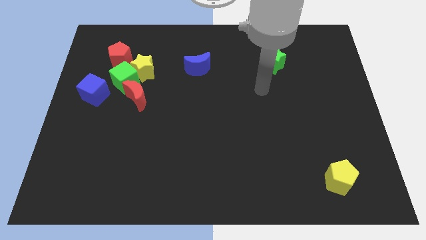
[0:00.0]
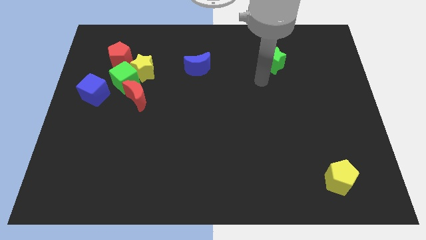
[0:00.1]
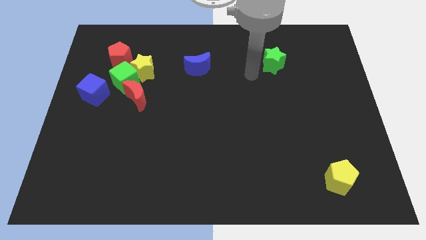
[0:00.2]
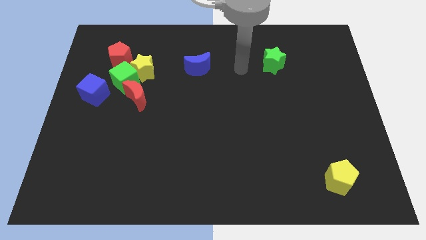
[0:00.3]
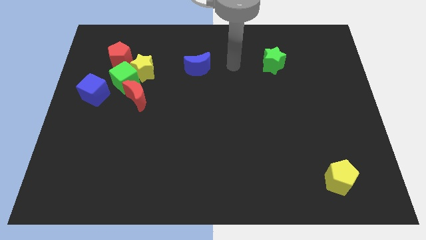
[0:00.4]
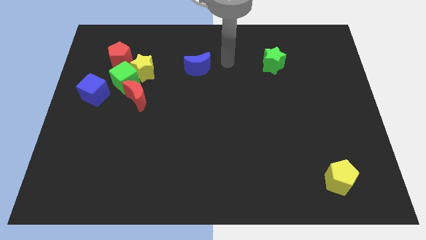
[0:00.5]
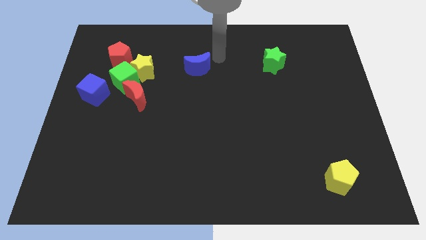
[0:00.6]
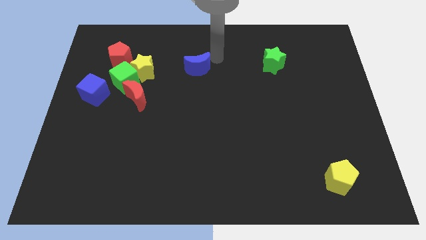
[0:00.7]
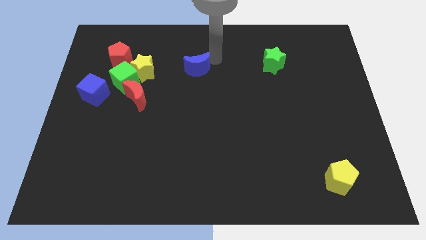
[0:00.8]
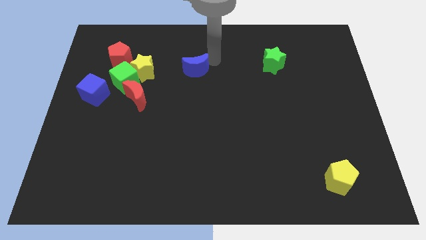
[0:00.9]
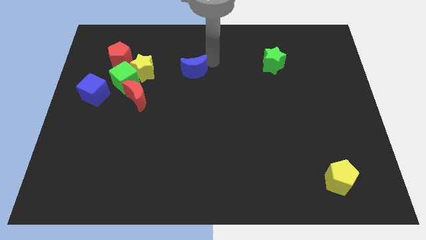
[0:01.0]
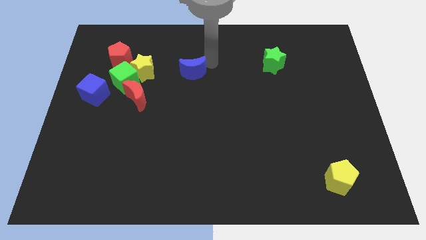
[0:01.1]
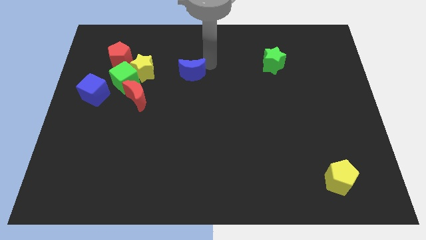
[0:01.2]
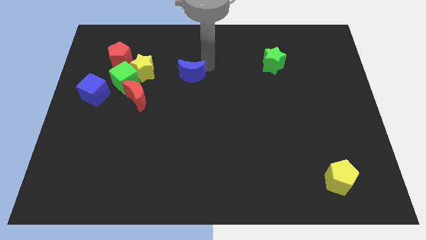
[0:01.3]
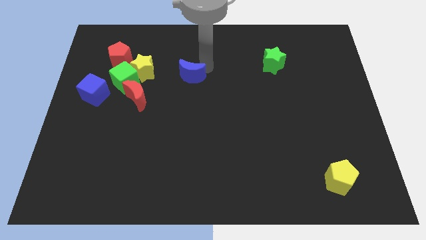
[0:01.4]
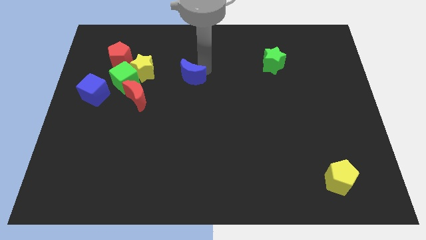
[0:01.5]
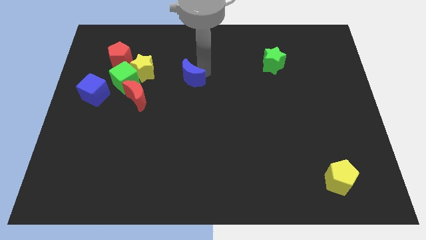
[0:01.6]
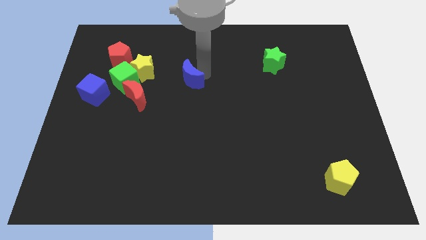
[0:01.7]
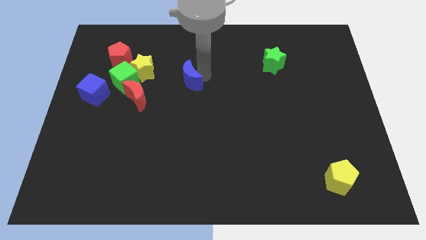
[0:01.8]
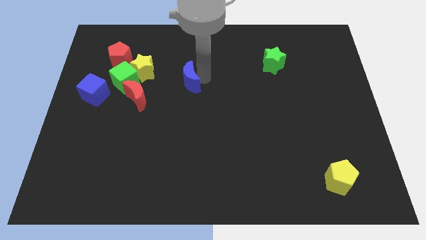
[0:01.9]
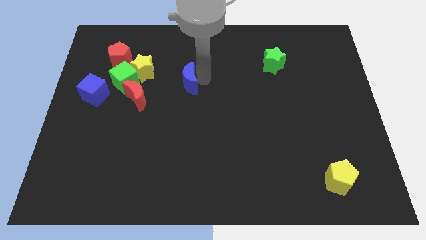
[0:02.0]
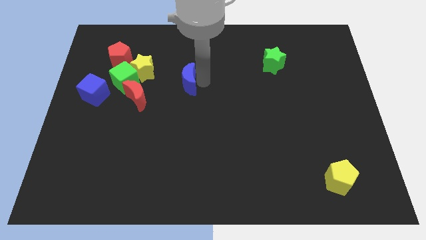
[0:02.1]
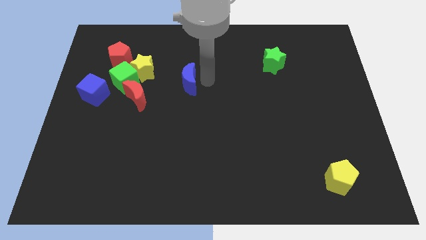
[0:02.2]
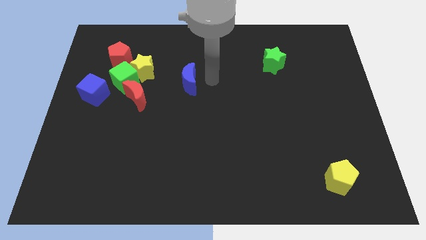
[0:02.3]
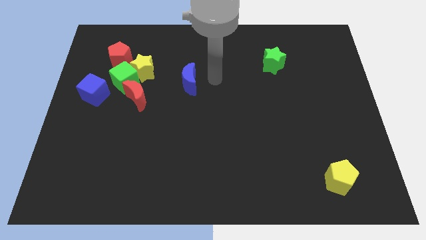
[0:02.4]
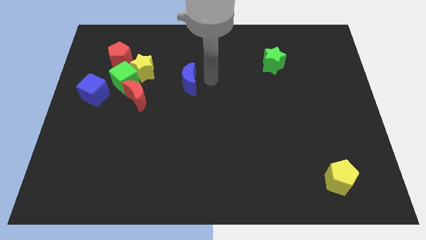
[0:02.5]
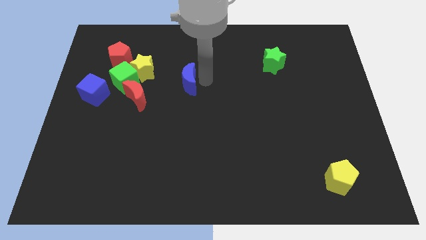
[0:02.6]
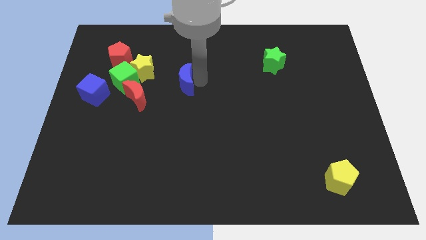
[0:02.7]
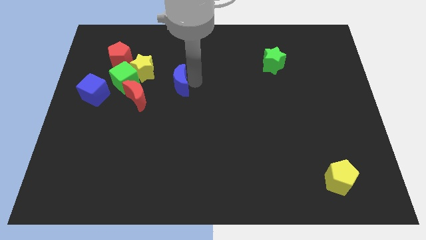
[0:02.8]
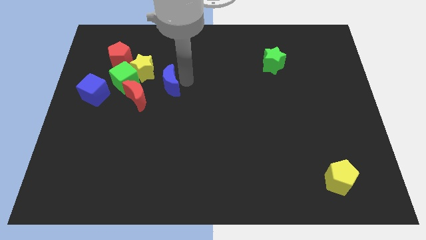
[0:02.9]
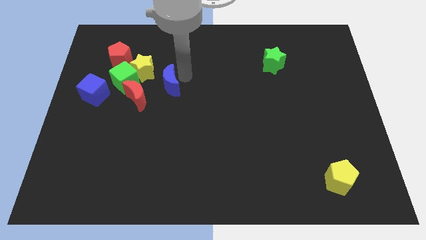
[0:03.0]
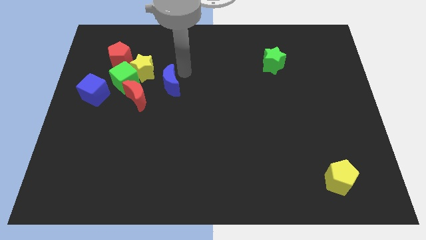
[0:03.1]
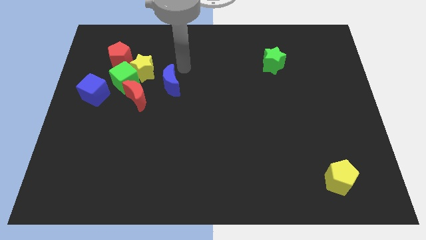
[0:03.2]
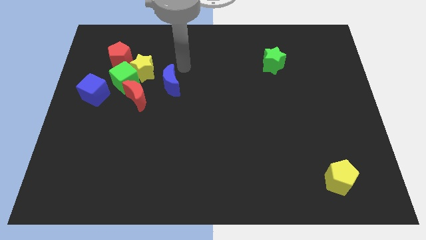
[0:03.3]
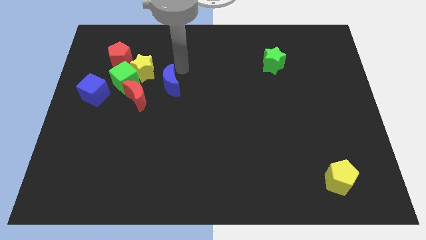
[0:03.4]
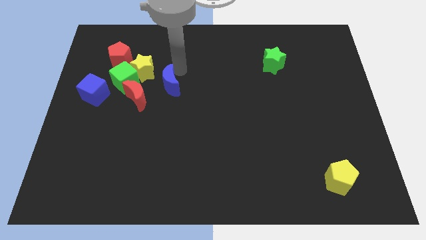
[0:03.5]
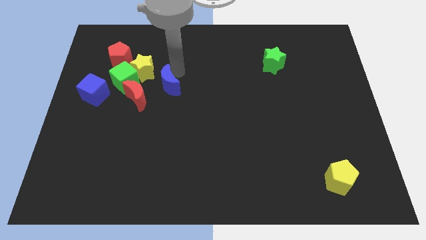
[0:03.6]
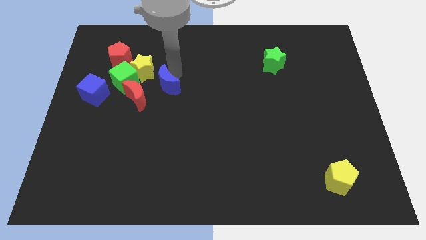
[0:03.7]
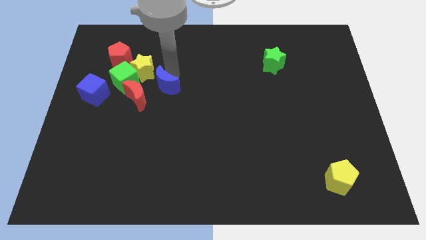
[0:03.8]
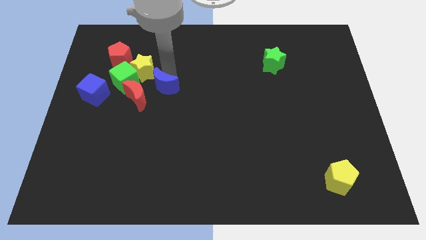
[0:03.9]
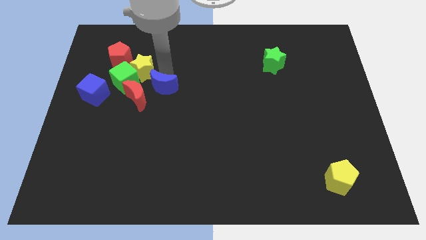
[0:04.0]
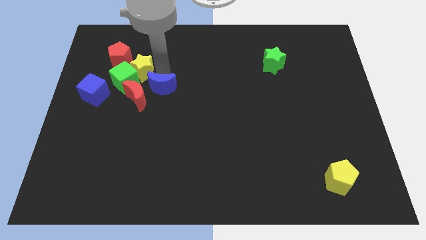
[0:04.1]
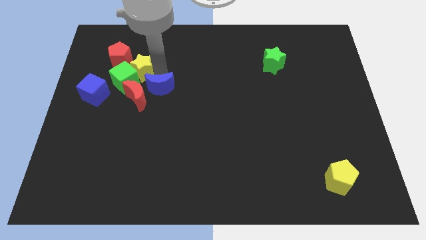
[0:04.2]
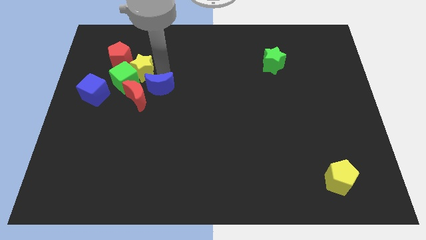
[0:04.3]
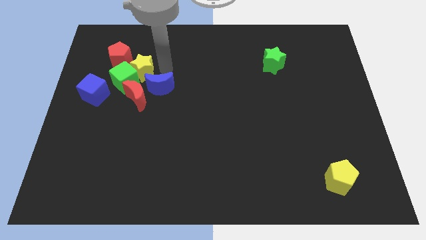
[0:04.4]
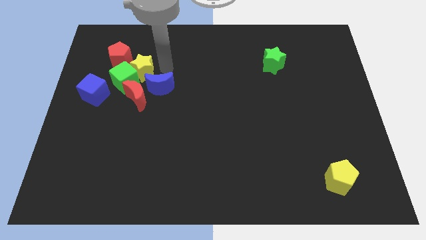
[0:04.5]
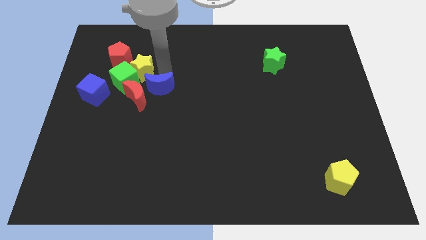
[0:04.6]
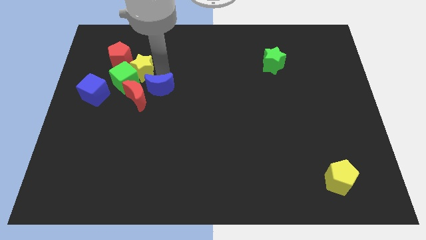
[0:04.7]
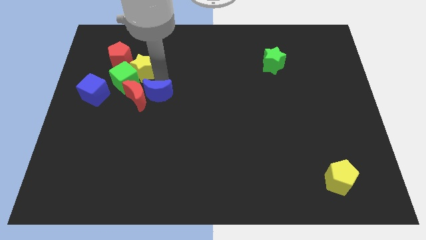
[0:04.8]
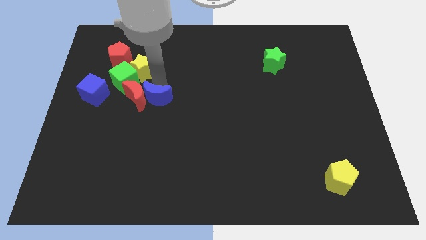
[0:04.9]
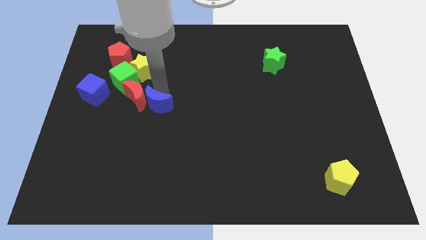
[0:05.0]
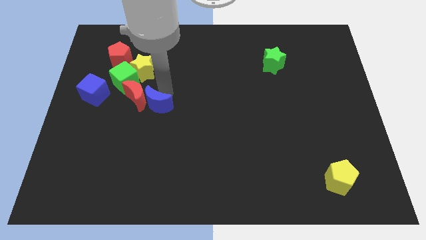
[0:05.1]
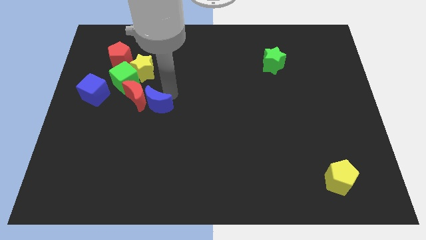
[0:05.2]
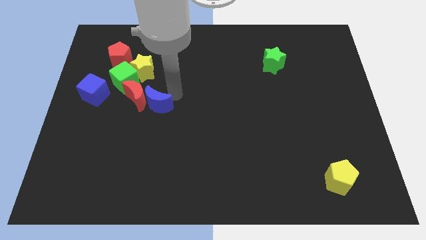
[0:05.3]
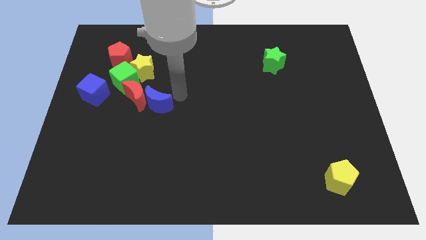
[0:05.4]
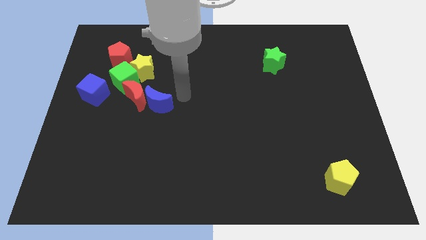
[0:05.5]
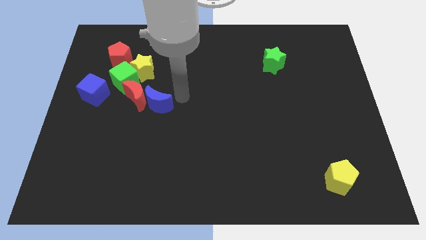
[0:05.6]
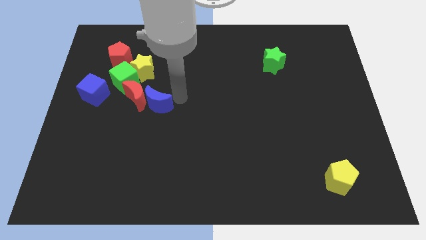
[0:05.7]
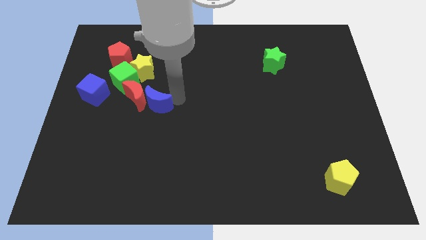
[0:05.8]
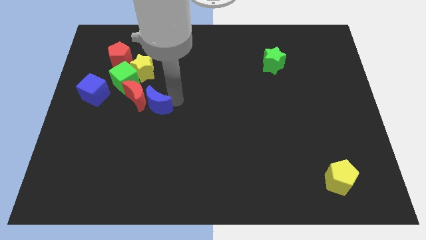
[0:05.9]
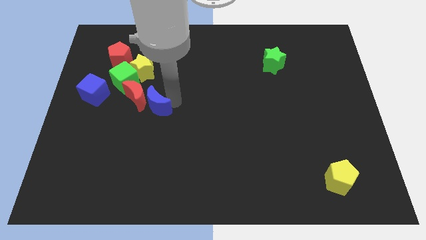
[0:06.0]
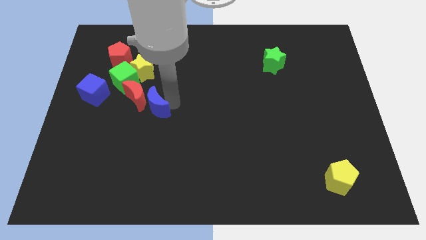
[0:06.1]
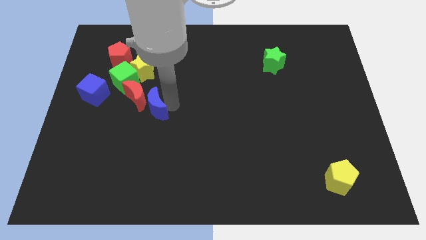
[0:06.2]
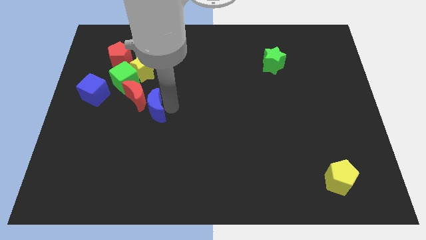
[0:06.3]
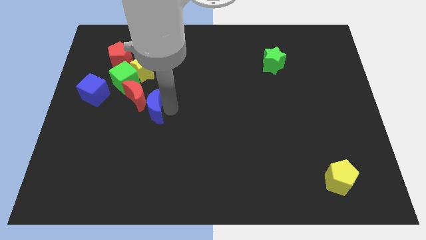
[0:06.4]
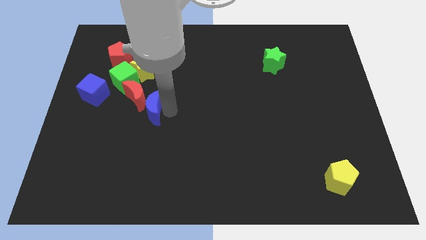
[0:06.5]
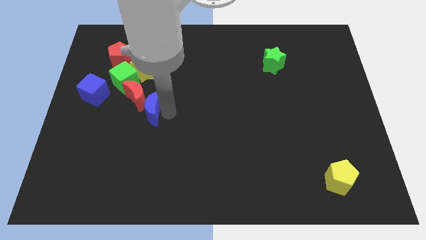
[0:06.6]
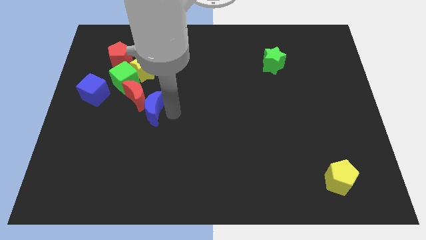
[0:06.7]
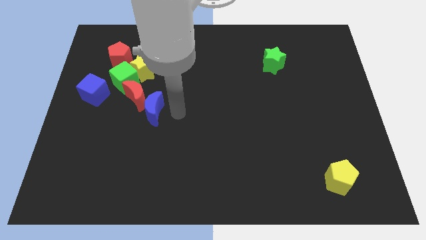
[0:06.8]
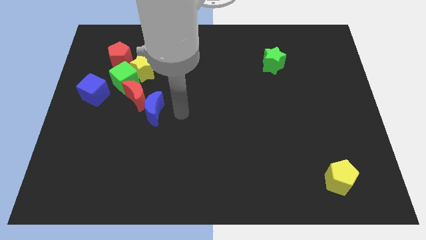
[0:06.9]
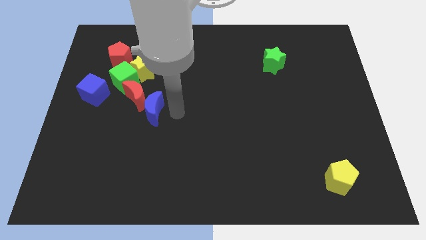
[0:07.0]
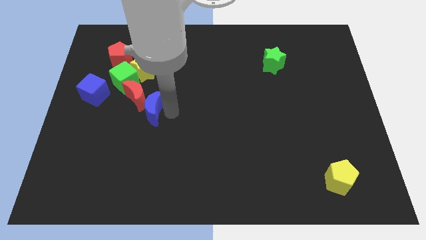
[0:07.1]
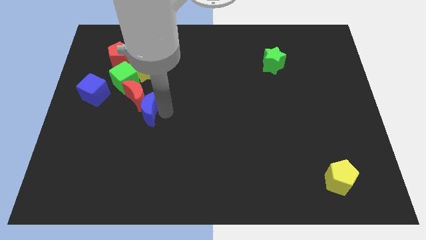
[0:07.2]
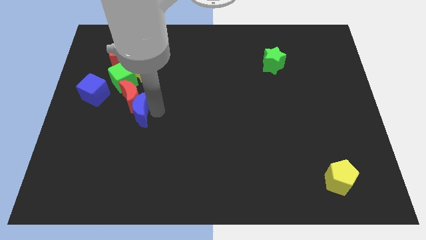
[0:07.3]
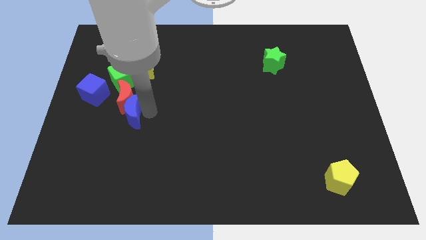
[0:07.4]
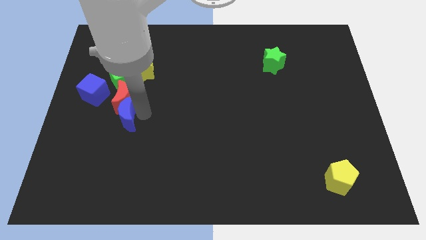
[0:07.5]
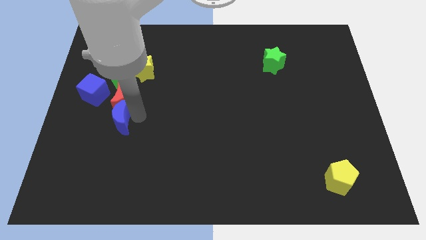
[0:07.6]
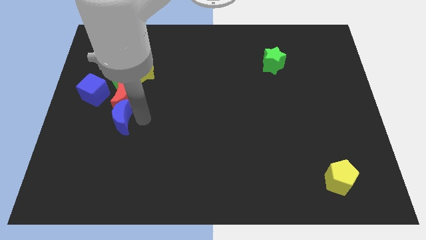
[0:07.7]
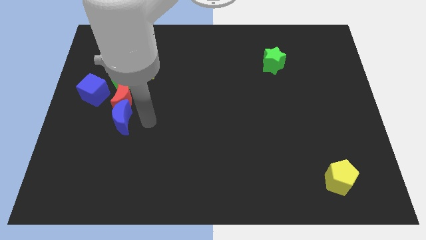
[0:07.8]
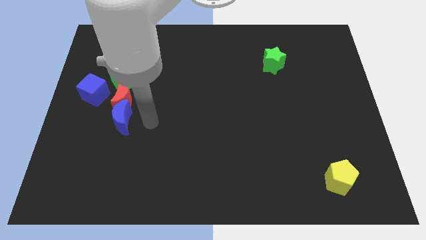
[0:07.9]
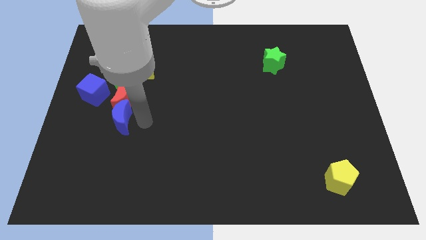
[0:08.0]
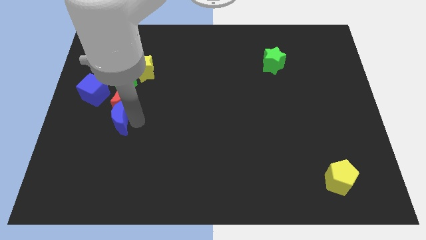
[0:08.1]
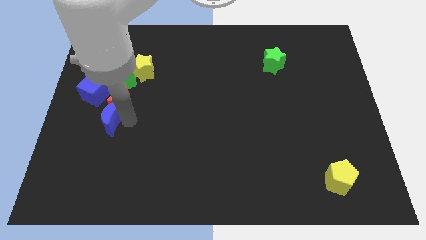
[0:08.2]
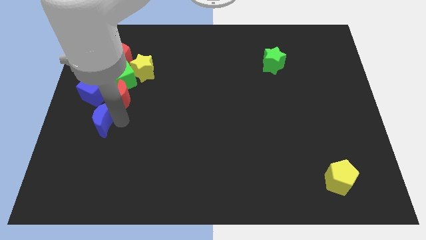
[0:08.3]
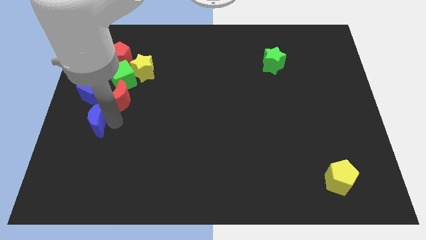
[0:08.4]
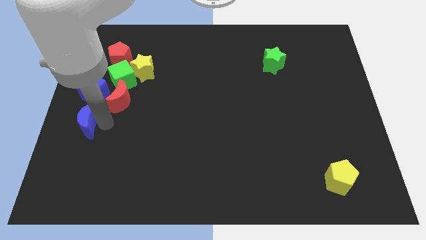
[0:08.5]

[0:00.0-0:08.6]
slide the blue moon to the left side
